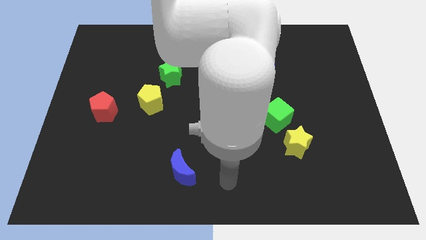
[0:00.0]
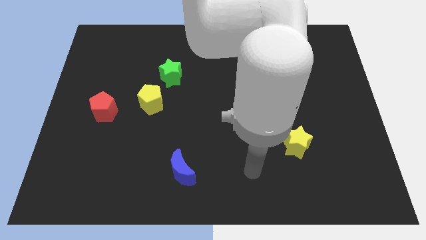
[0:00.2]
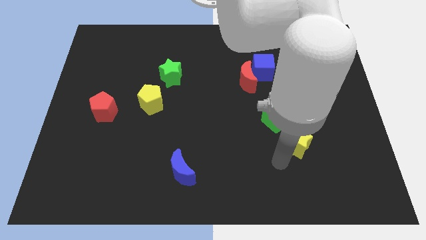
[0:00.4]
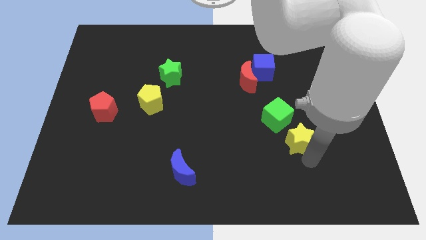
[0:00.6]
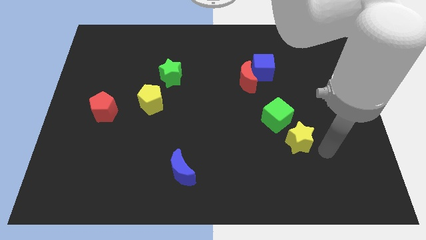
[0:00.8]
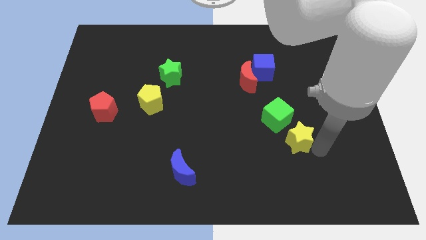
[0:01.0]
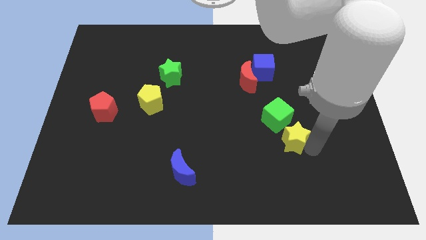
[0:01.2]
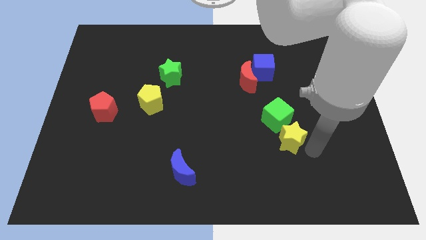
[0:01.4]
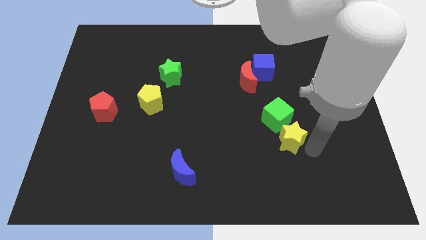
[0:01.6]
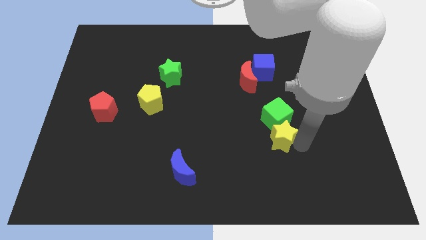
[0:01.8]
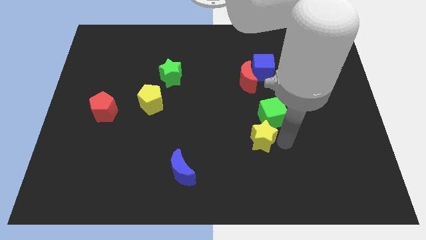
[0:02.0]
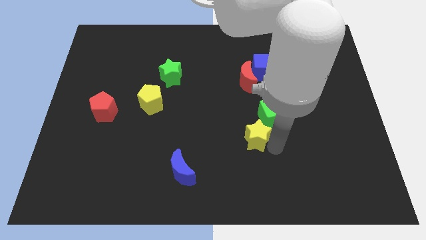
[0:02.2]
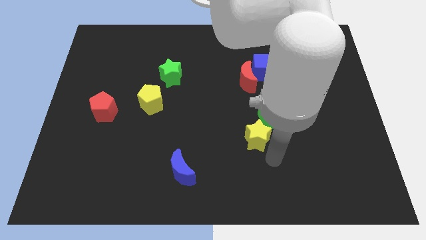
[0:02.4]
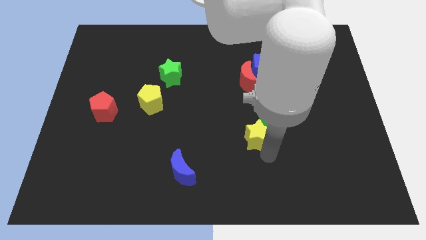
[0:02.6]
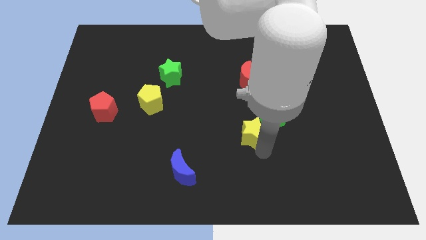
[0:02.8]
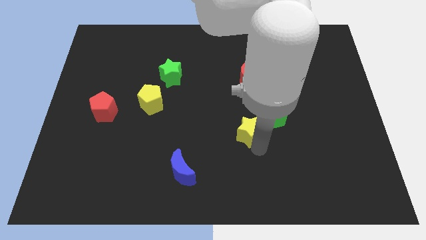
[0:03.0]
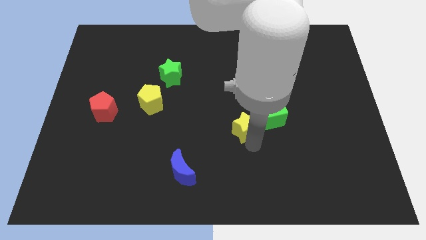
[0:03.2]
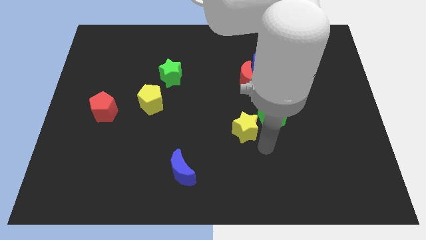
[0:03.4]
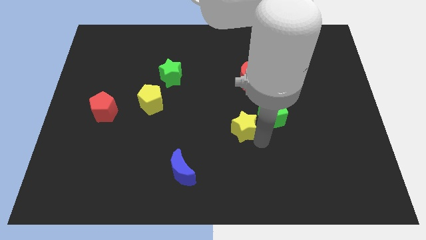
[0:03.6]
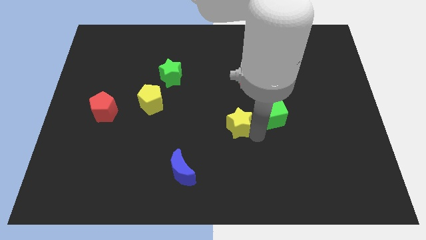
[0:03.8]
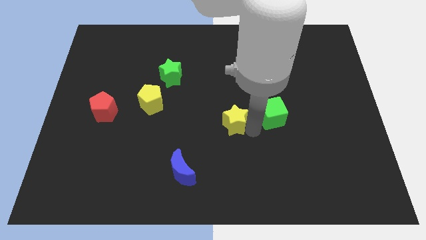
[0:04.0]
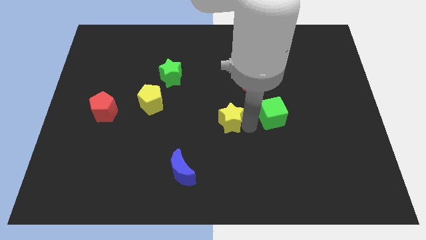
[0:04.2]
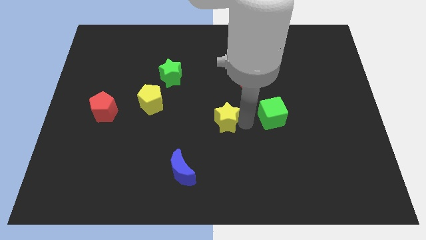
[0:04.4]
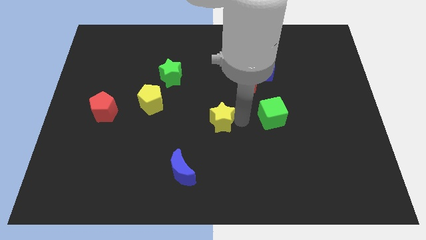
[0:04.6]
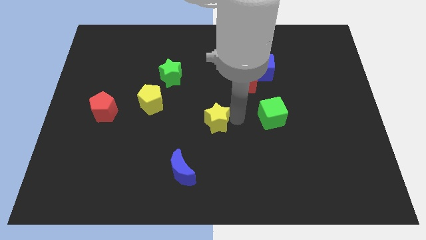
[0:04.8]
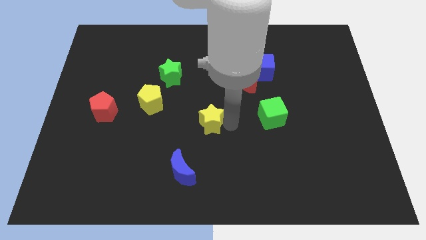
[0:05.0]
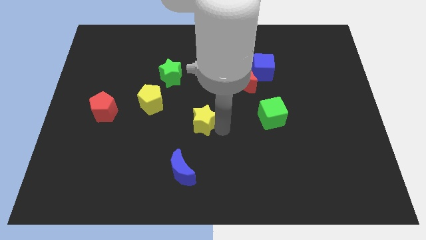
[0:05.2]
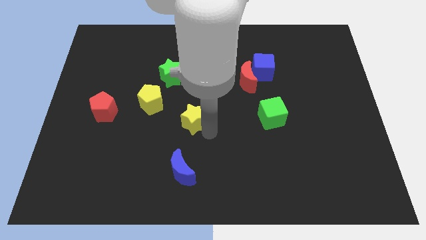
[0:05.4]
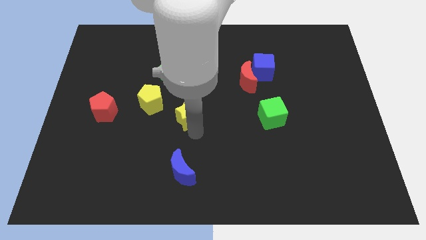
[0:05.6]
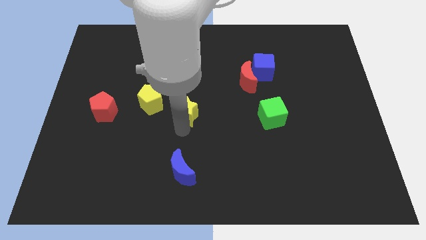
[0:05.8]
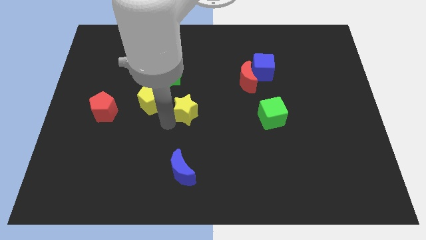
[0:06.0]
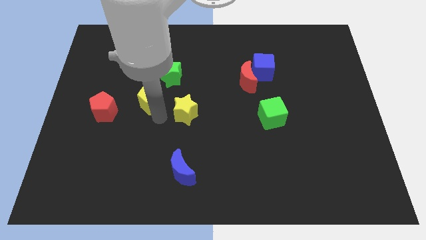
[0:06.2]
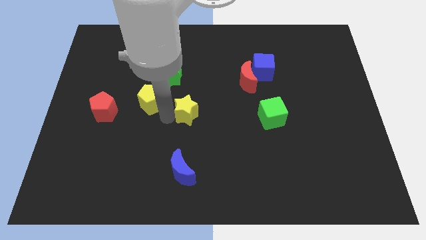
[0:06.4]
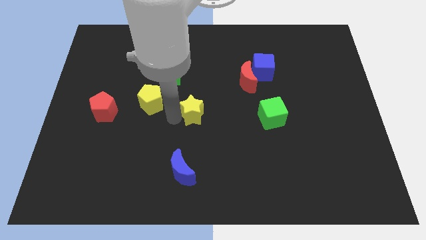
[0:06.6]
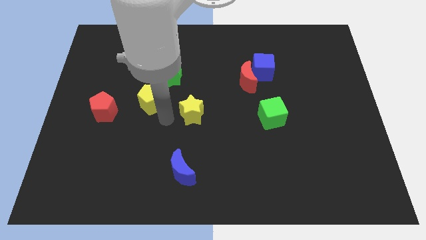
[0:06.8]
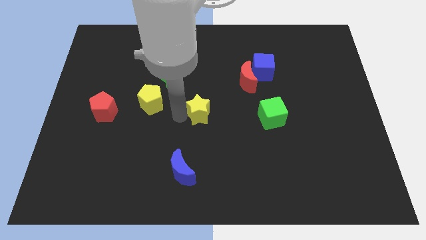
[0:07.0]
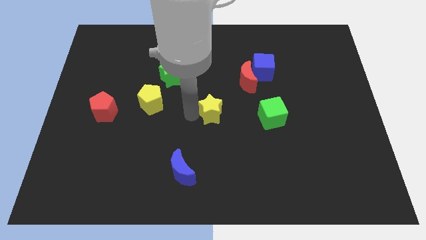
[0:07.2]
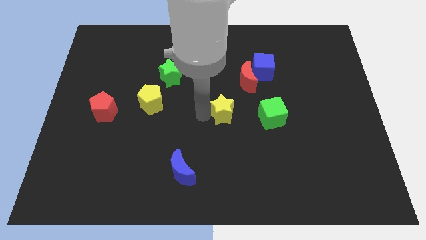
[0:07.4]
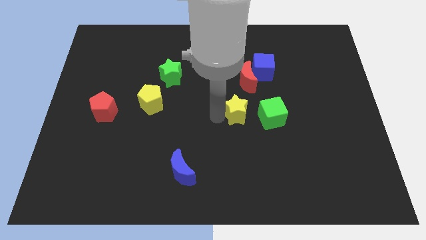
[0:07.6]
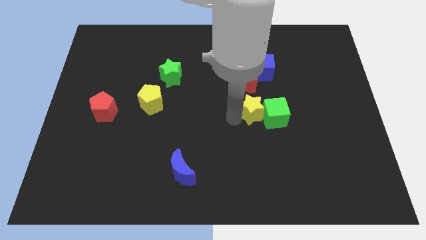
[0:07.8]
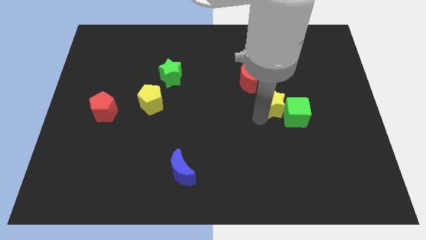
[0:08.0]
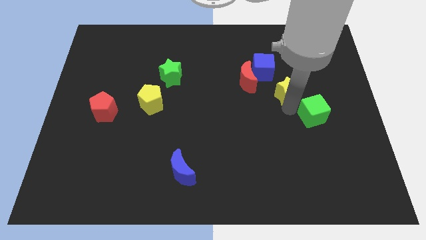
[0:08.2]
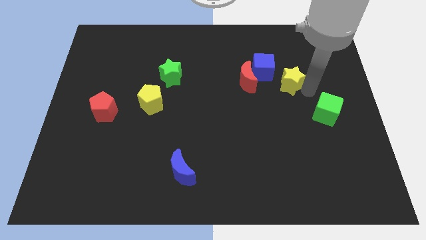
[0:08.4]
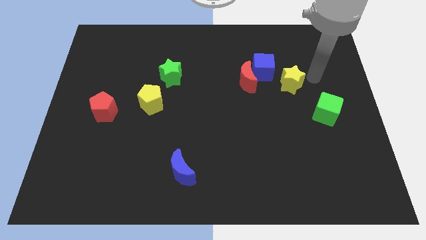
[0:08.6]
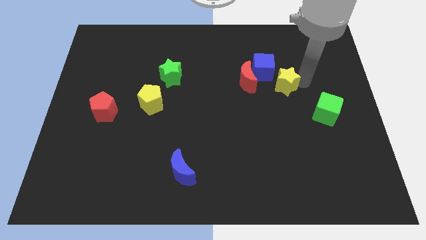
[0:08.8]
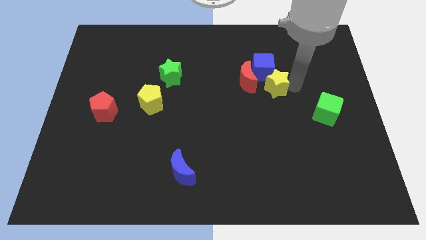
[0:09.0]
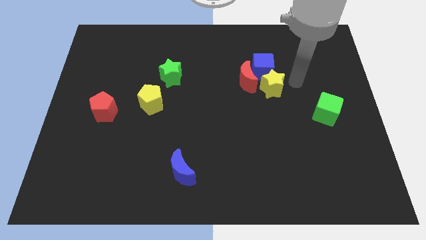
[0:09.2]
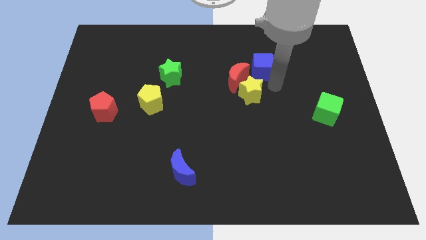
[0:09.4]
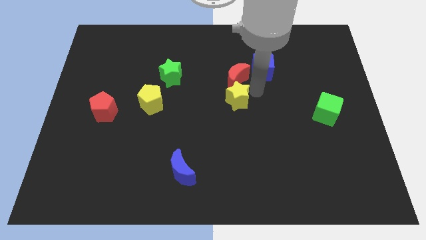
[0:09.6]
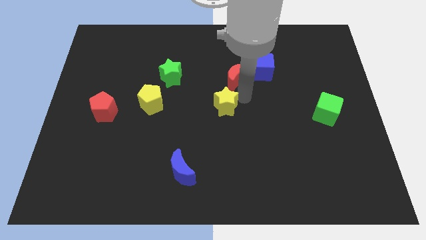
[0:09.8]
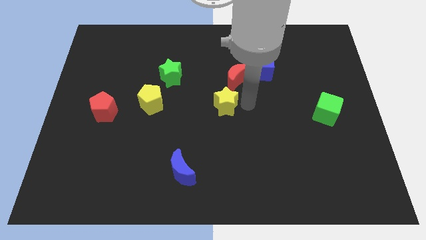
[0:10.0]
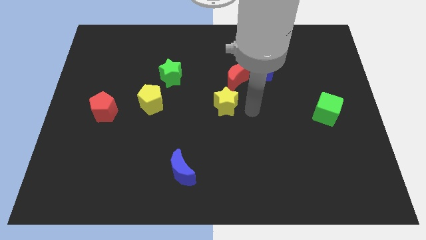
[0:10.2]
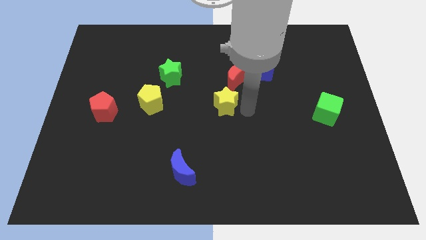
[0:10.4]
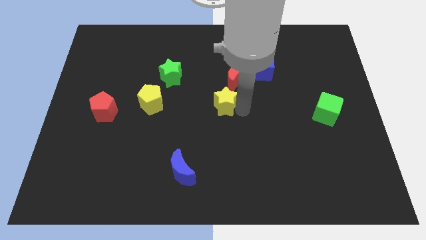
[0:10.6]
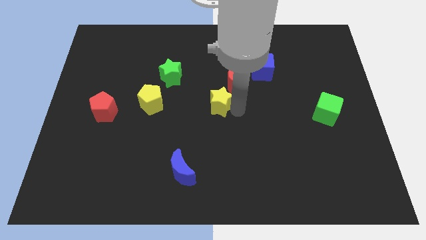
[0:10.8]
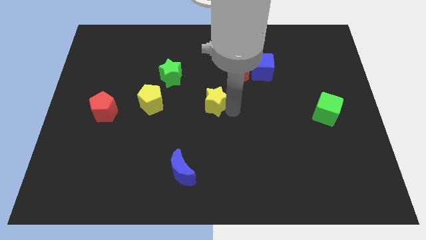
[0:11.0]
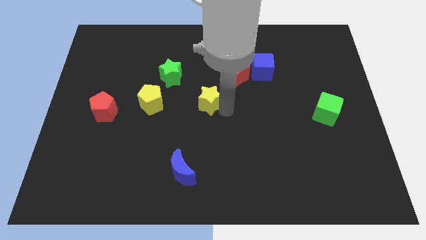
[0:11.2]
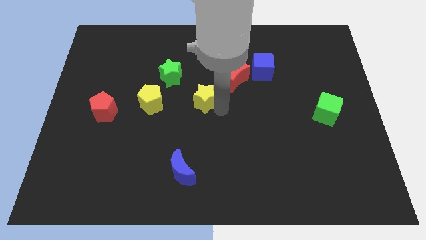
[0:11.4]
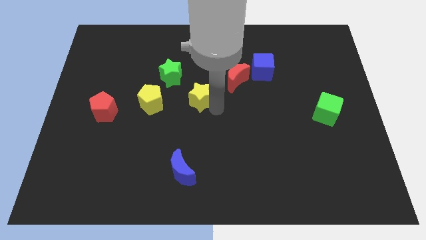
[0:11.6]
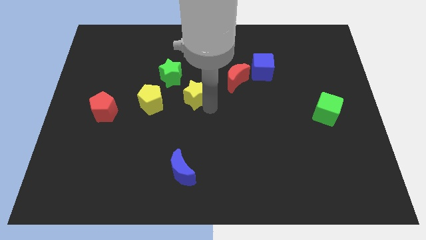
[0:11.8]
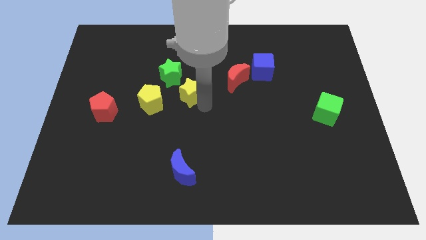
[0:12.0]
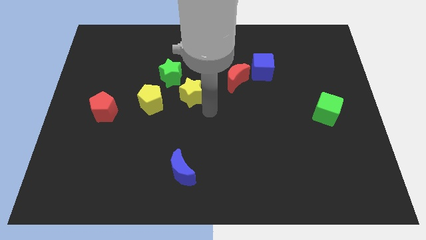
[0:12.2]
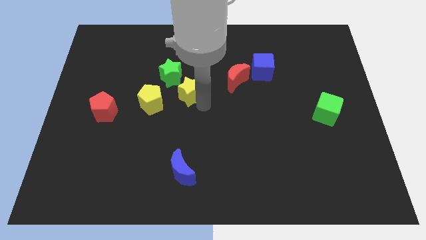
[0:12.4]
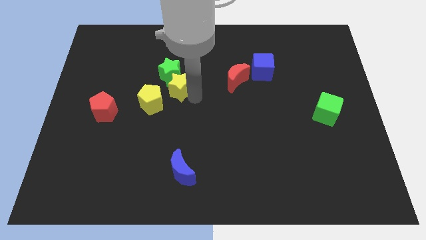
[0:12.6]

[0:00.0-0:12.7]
slide the yellow star next to the green star
